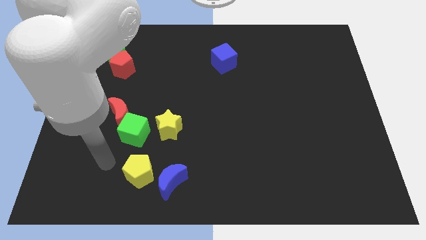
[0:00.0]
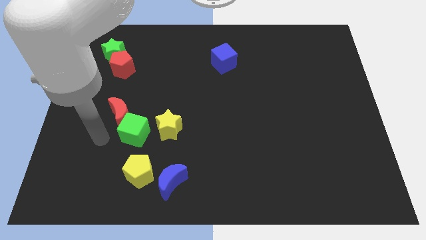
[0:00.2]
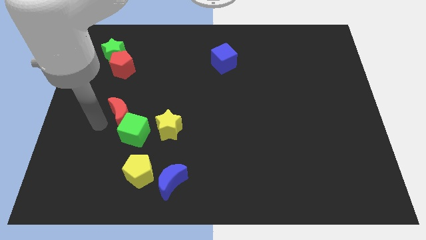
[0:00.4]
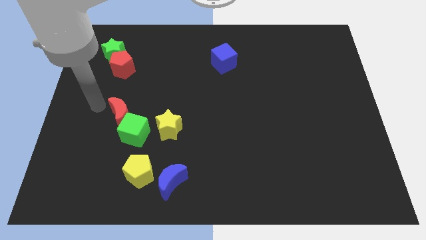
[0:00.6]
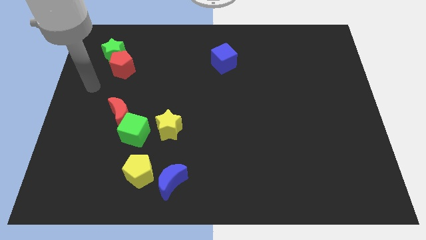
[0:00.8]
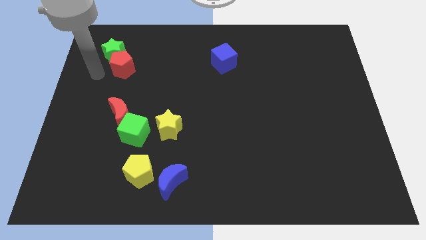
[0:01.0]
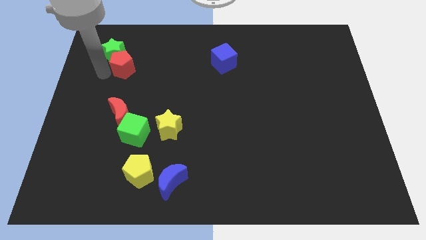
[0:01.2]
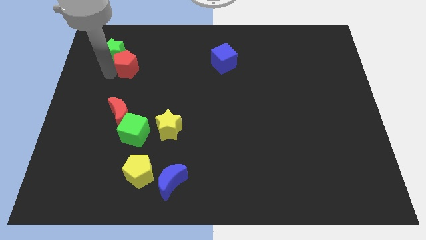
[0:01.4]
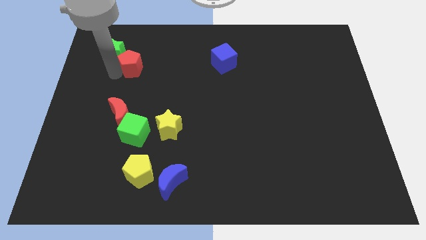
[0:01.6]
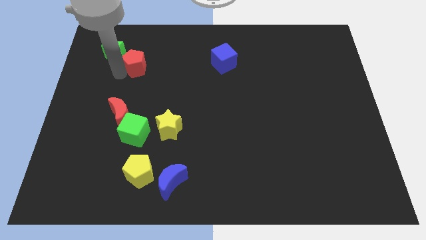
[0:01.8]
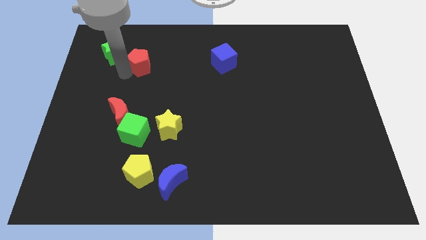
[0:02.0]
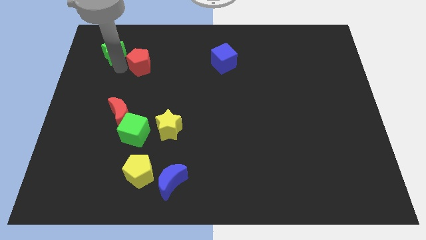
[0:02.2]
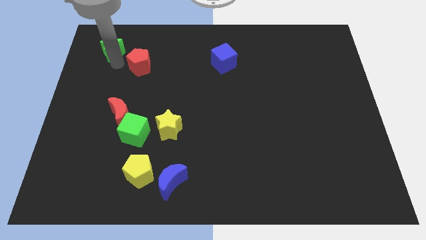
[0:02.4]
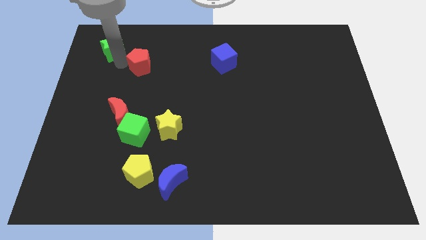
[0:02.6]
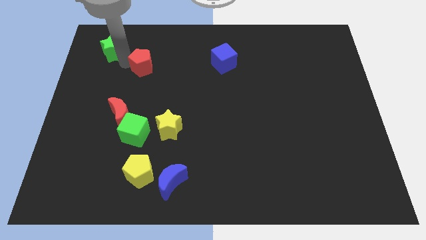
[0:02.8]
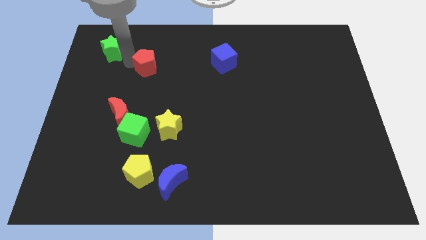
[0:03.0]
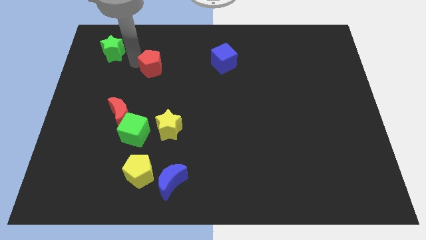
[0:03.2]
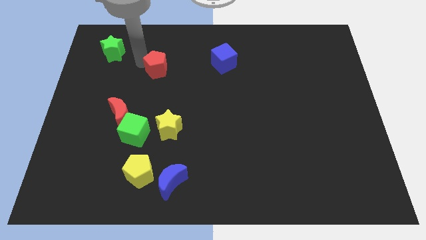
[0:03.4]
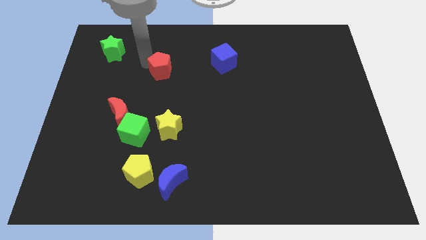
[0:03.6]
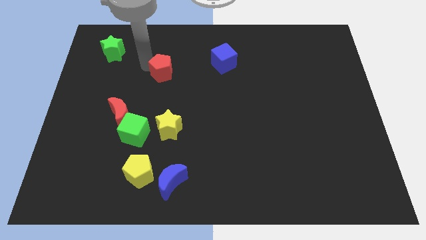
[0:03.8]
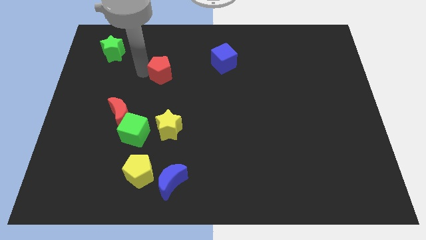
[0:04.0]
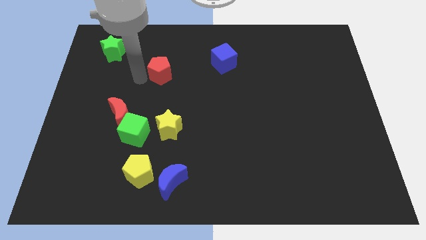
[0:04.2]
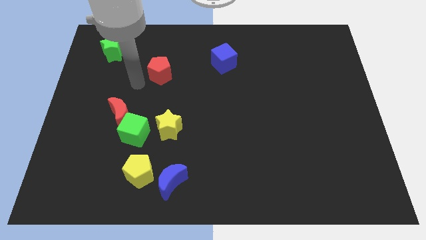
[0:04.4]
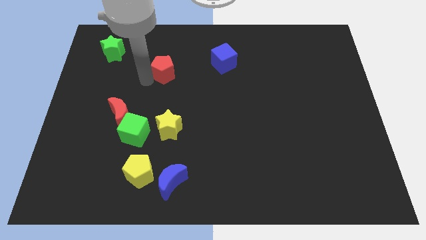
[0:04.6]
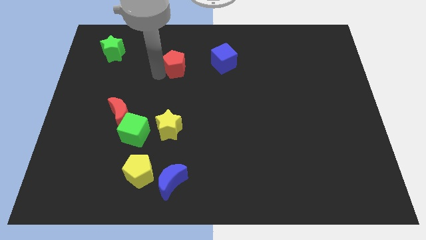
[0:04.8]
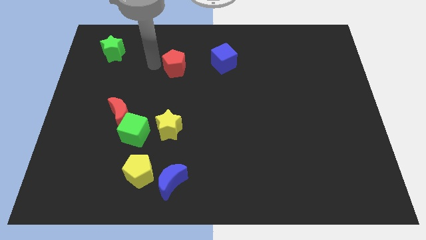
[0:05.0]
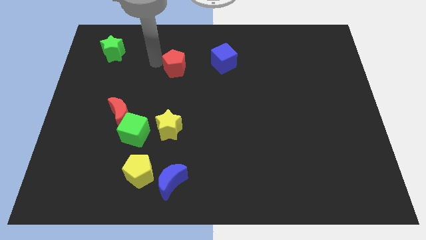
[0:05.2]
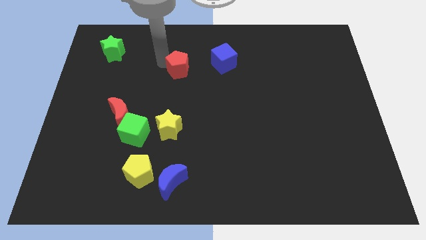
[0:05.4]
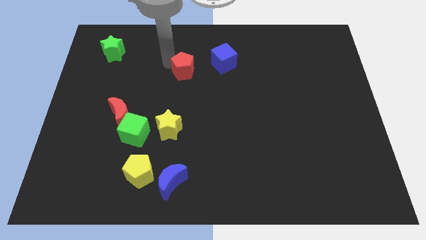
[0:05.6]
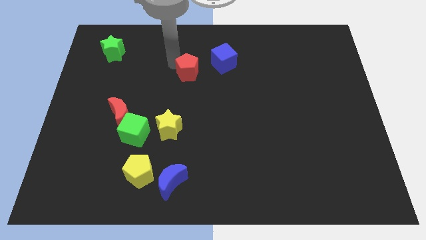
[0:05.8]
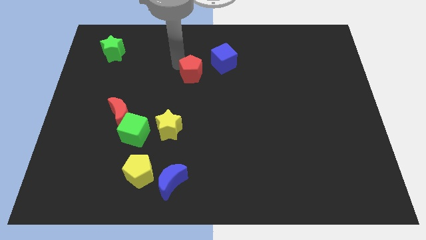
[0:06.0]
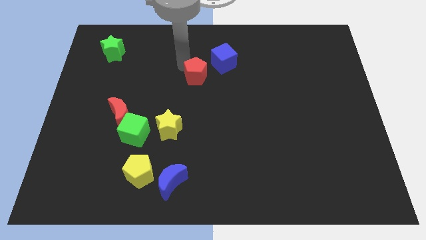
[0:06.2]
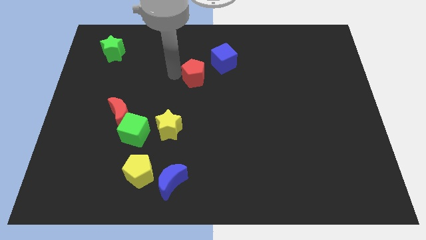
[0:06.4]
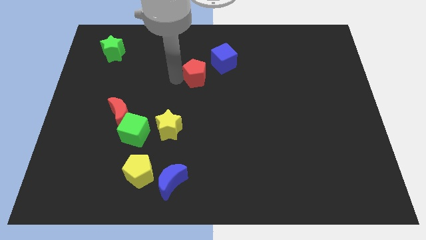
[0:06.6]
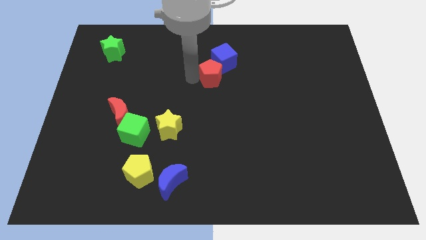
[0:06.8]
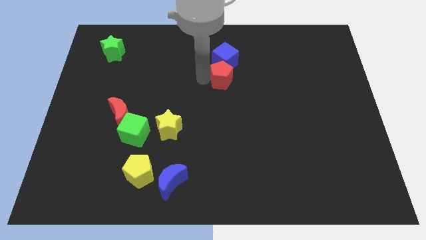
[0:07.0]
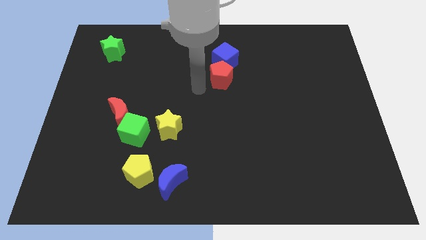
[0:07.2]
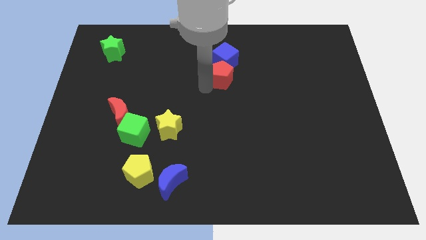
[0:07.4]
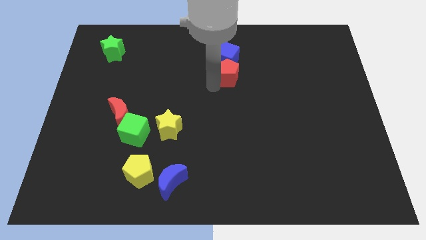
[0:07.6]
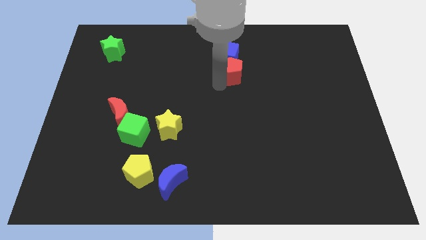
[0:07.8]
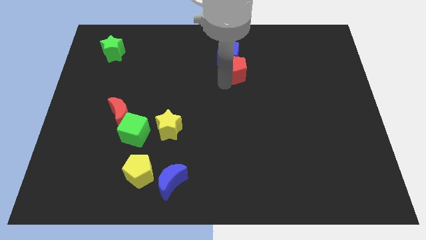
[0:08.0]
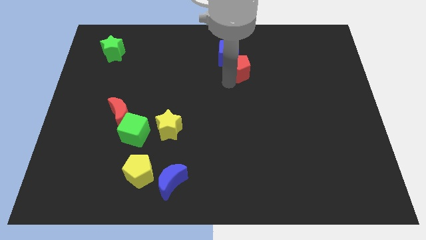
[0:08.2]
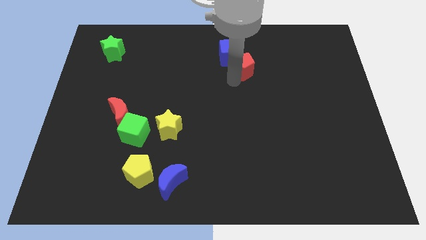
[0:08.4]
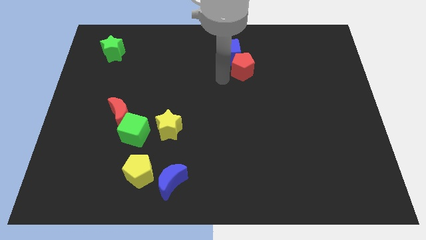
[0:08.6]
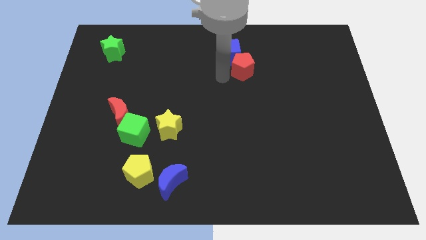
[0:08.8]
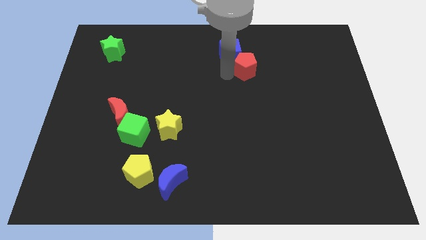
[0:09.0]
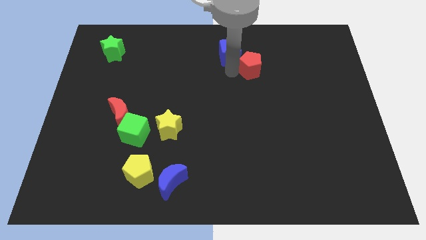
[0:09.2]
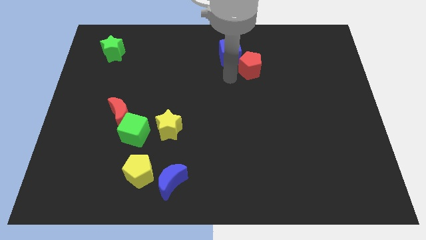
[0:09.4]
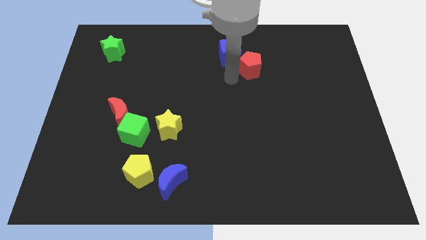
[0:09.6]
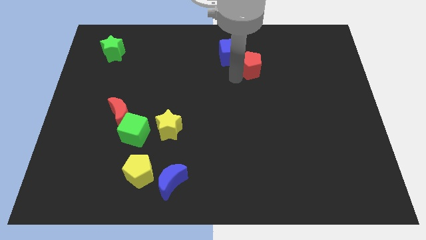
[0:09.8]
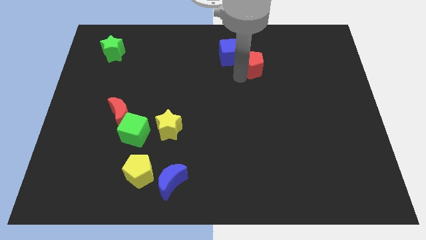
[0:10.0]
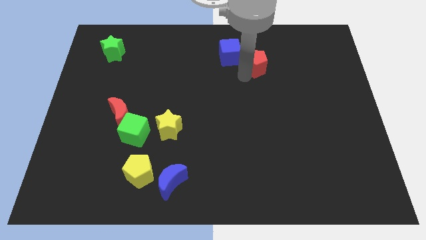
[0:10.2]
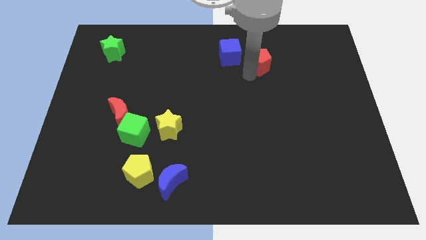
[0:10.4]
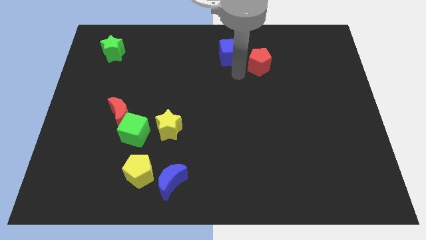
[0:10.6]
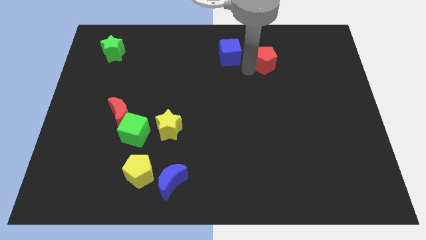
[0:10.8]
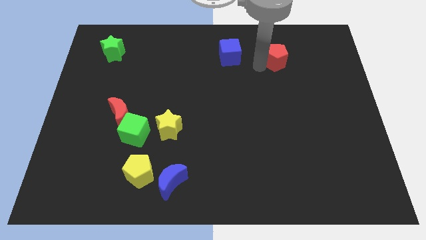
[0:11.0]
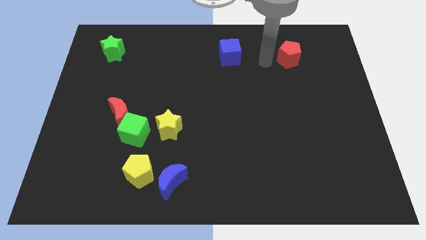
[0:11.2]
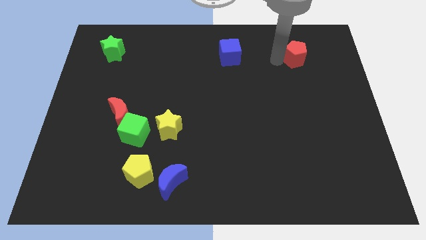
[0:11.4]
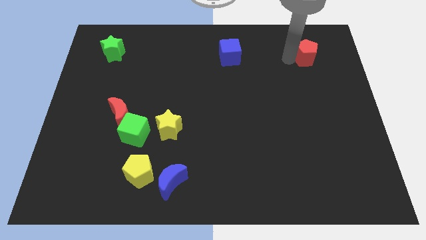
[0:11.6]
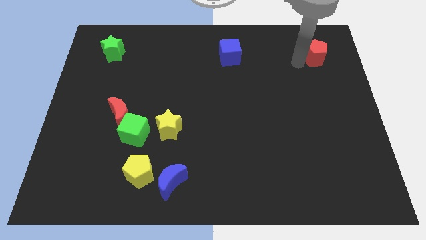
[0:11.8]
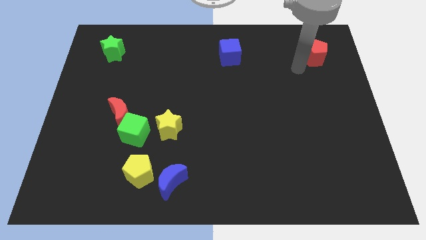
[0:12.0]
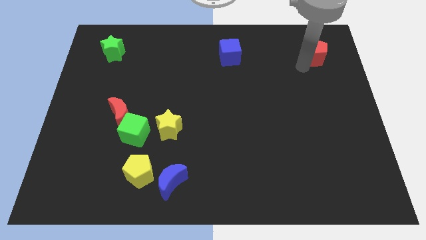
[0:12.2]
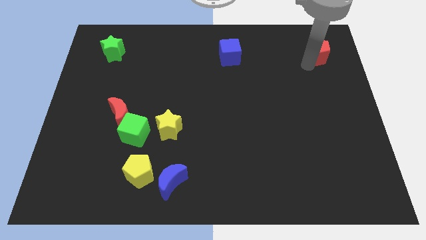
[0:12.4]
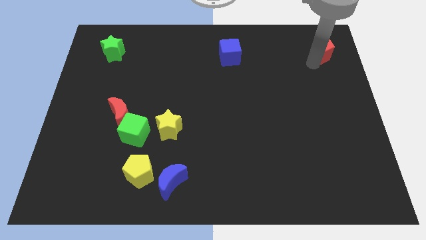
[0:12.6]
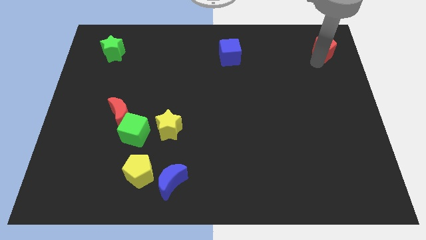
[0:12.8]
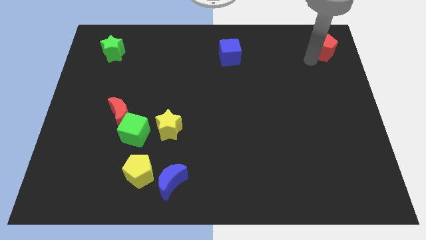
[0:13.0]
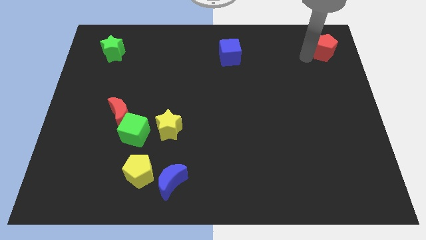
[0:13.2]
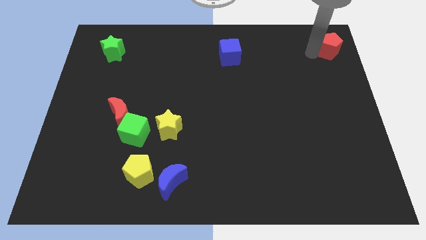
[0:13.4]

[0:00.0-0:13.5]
move the red pentagon to the upper right corner

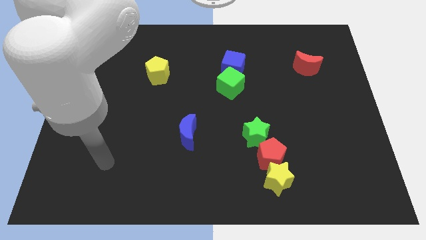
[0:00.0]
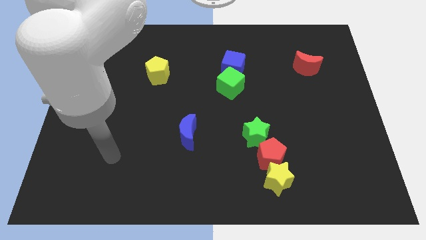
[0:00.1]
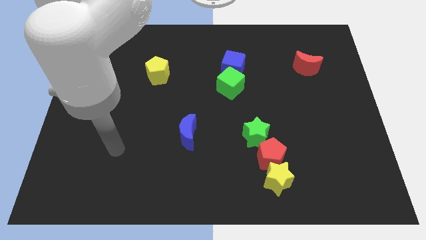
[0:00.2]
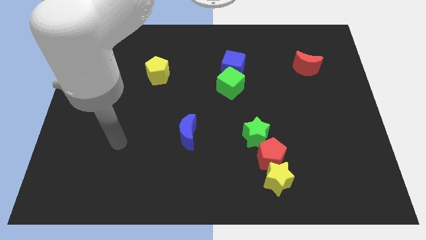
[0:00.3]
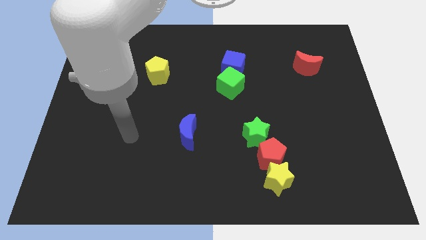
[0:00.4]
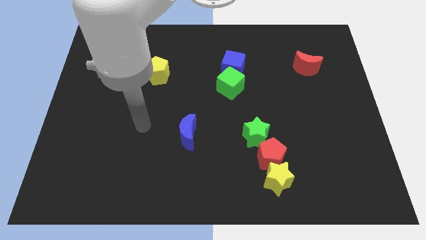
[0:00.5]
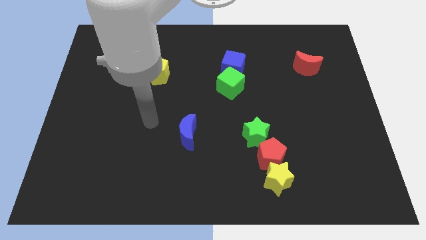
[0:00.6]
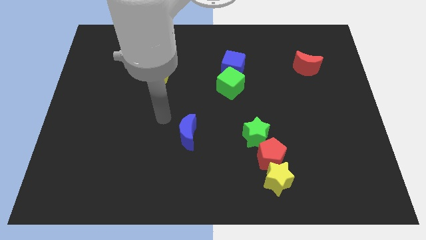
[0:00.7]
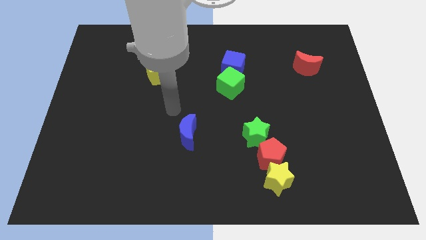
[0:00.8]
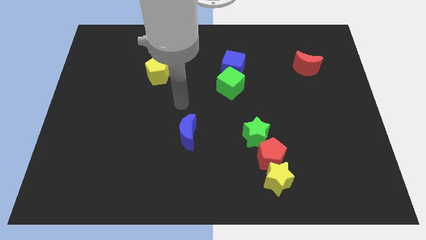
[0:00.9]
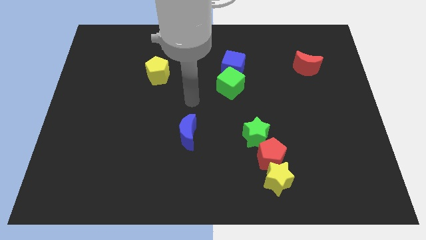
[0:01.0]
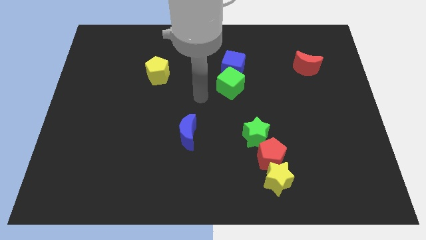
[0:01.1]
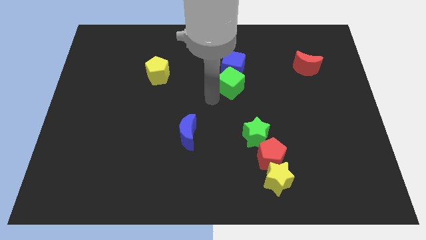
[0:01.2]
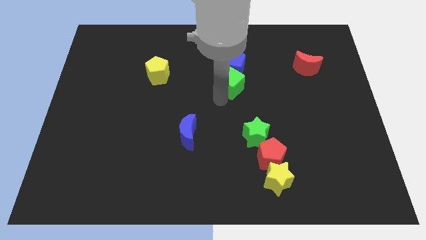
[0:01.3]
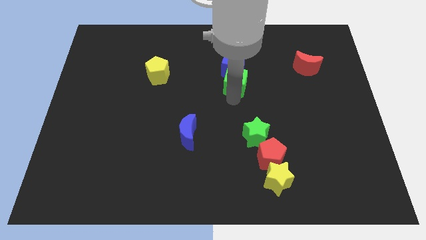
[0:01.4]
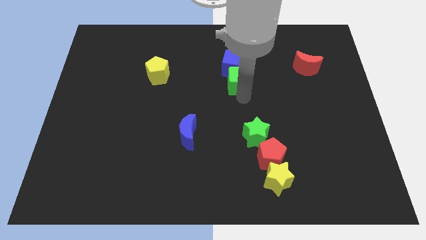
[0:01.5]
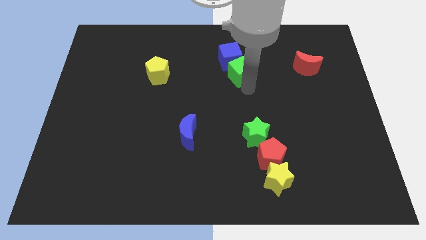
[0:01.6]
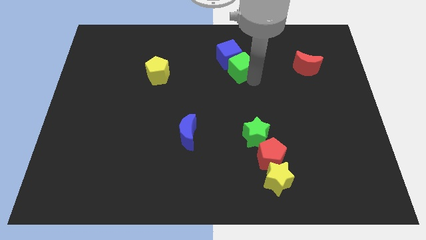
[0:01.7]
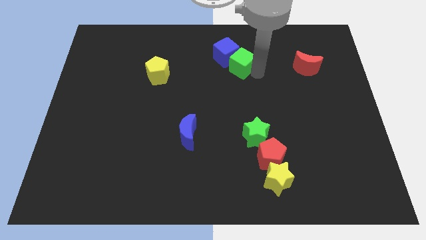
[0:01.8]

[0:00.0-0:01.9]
put the blue cube to the towards your base
